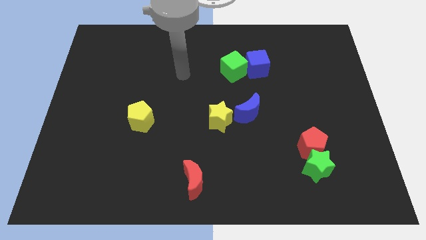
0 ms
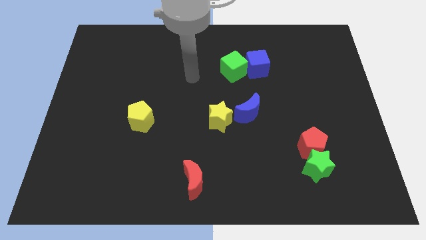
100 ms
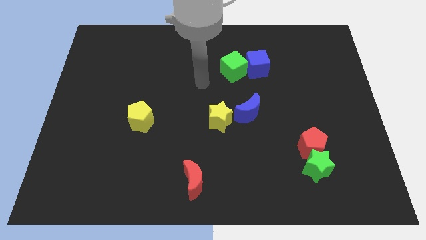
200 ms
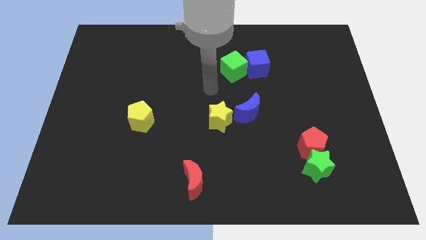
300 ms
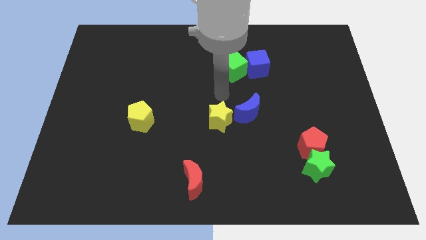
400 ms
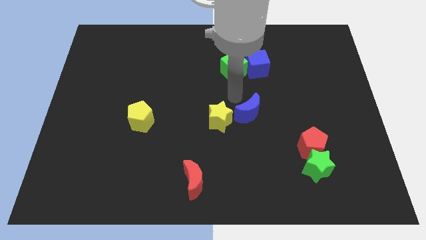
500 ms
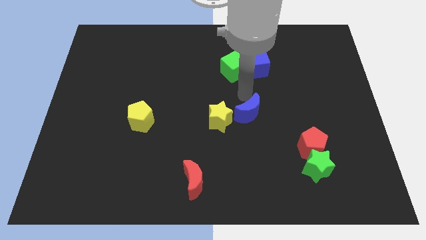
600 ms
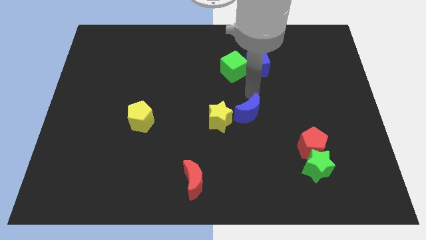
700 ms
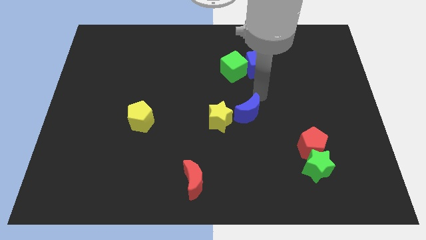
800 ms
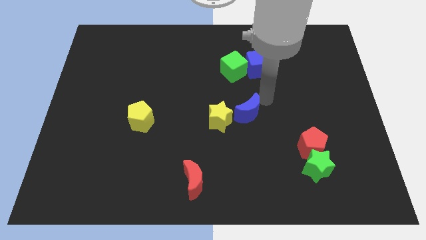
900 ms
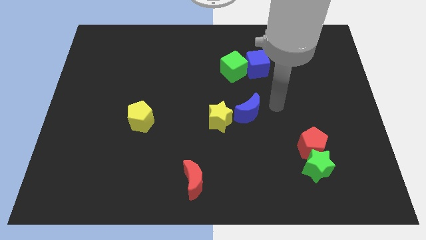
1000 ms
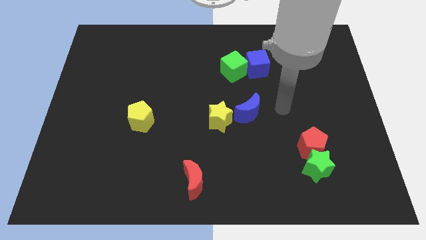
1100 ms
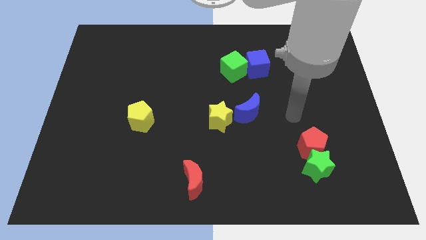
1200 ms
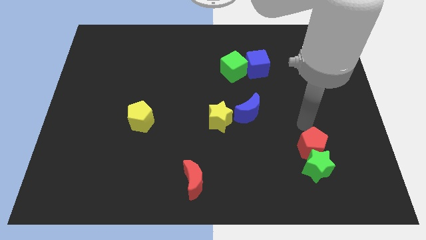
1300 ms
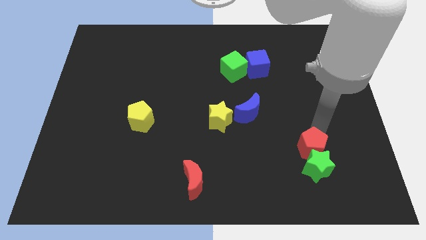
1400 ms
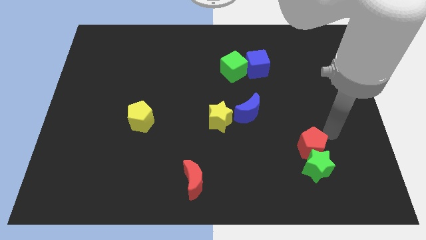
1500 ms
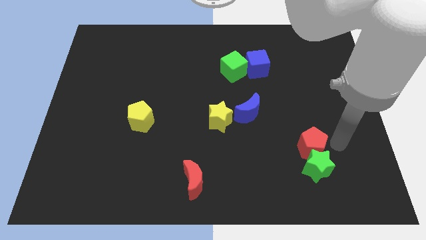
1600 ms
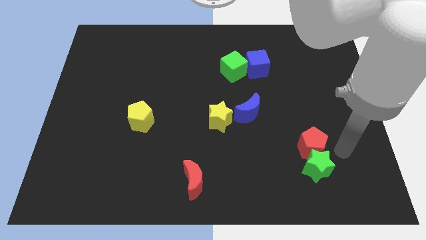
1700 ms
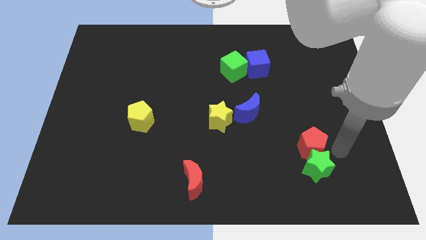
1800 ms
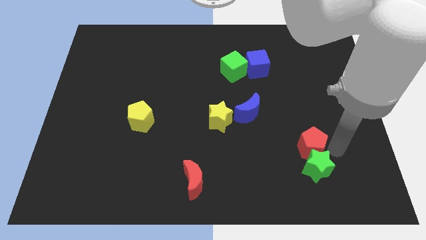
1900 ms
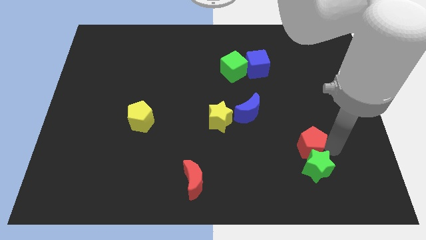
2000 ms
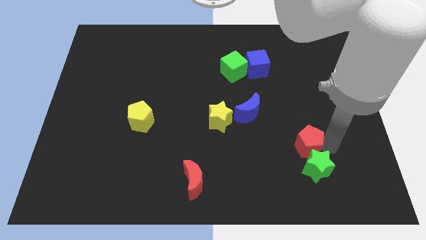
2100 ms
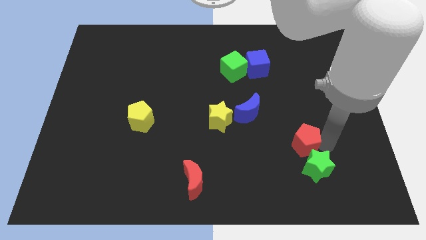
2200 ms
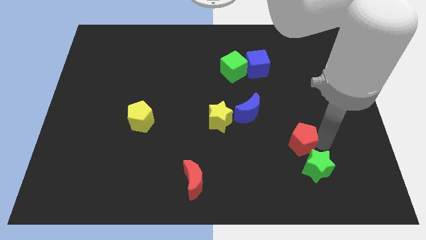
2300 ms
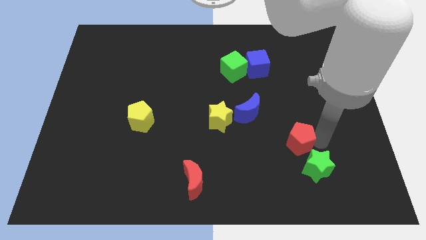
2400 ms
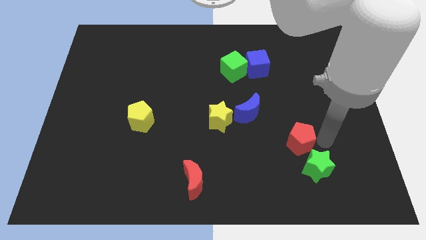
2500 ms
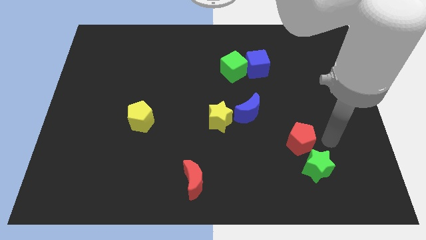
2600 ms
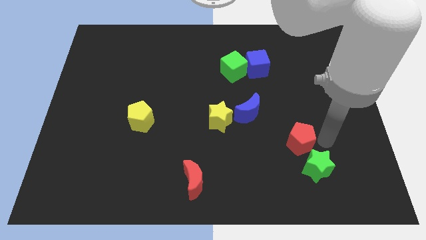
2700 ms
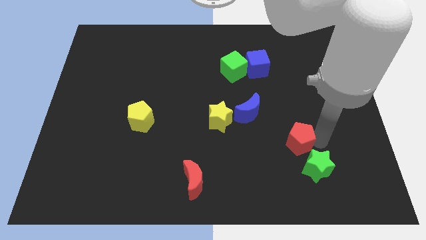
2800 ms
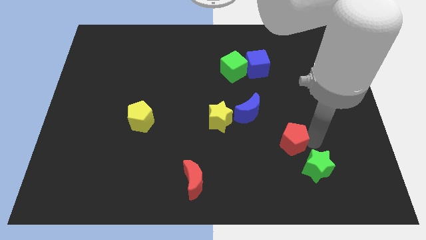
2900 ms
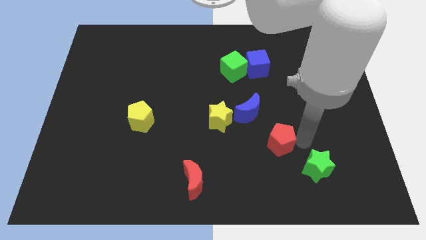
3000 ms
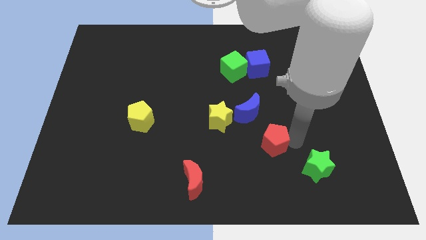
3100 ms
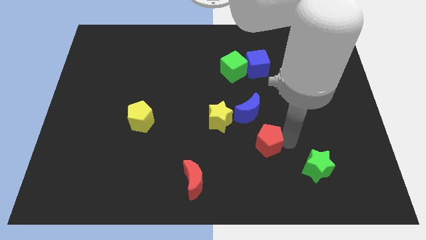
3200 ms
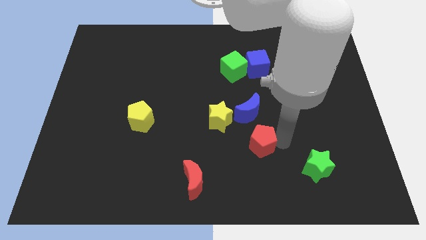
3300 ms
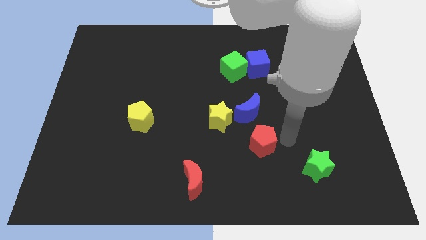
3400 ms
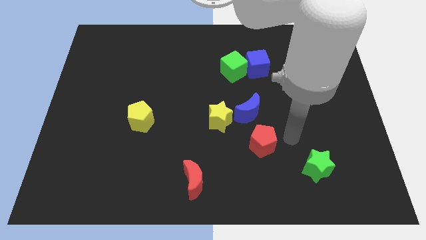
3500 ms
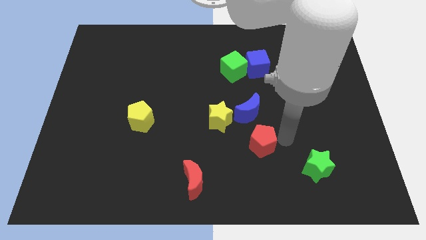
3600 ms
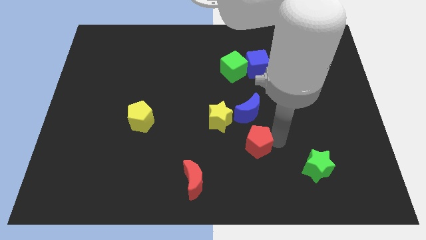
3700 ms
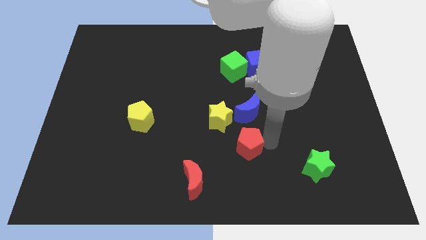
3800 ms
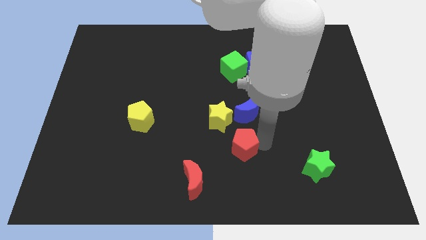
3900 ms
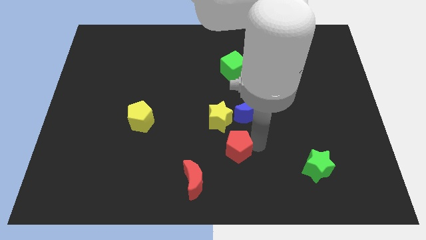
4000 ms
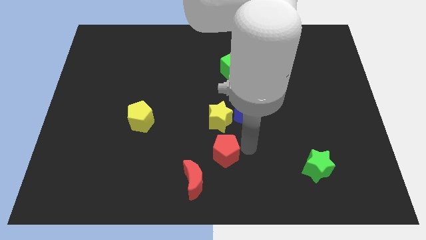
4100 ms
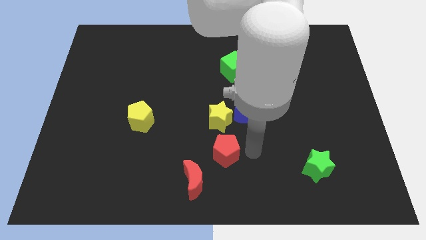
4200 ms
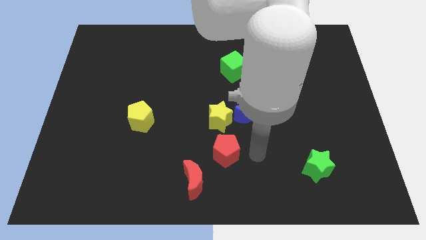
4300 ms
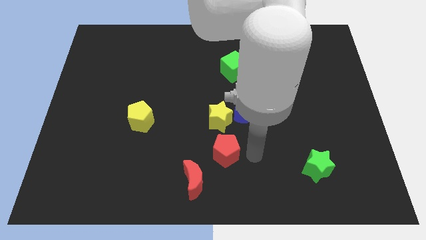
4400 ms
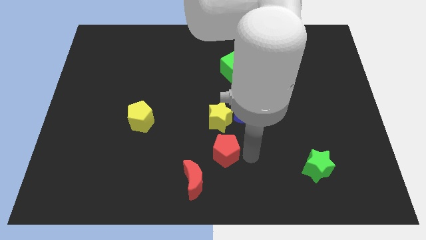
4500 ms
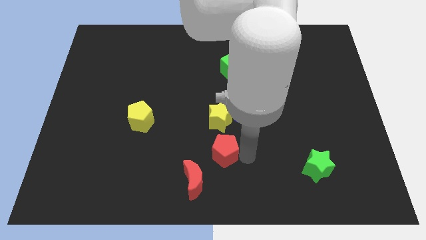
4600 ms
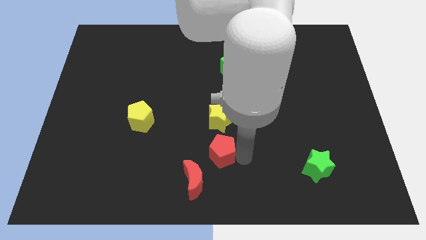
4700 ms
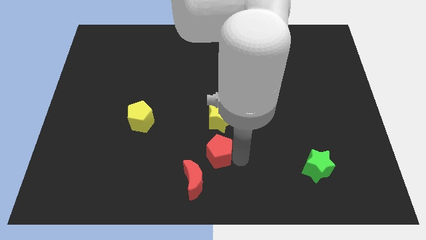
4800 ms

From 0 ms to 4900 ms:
push the red pentagon to the left

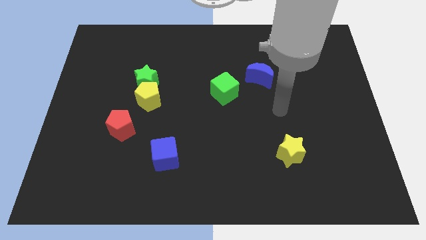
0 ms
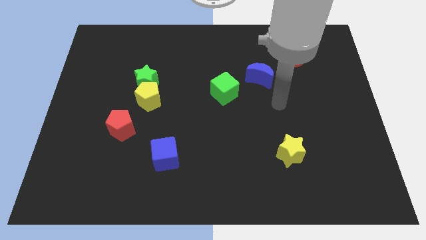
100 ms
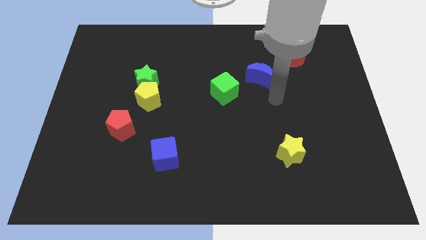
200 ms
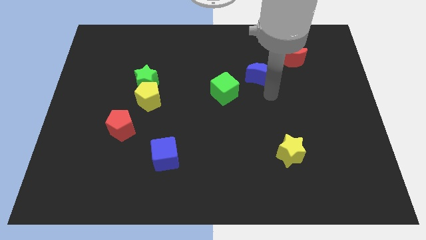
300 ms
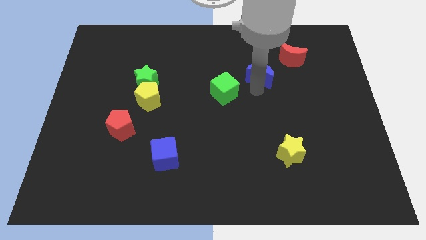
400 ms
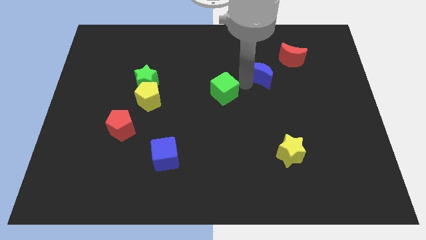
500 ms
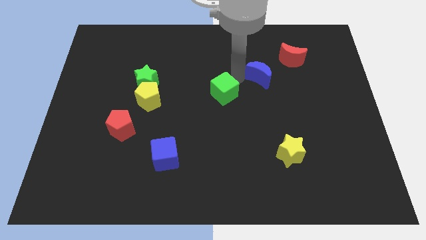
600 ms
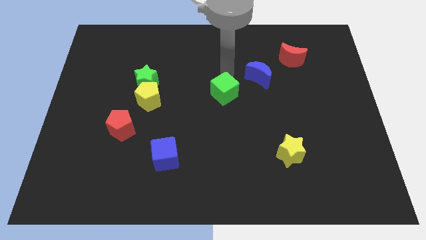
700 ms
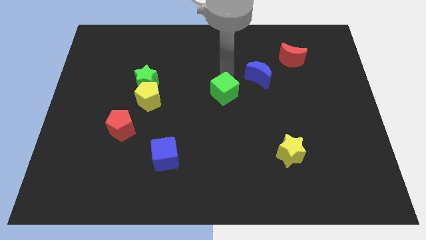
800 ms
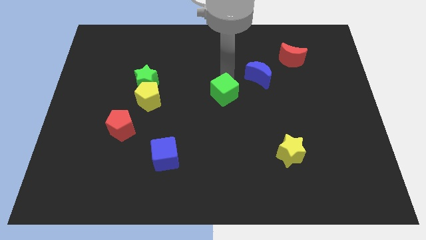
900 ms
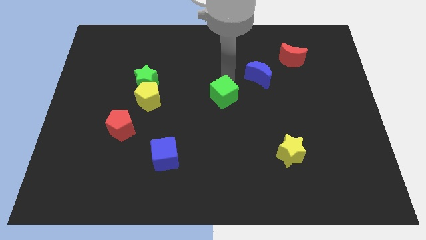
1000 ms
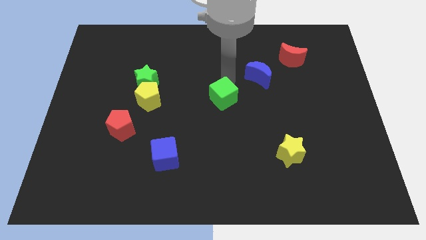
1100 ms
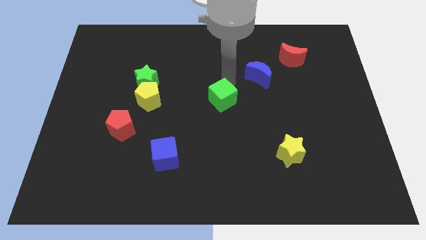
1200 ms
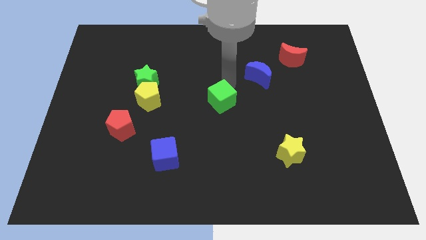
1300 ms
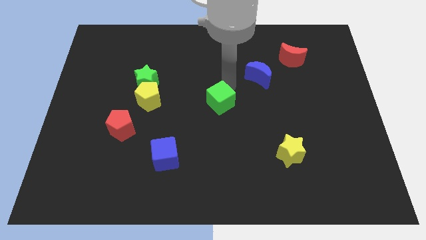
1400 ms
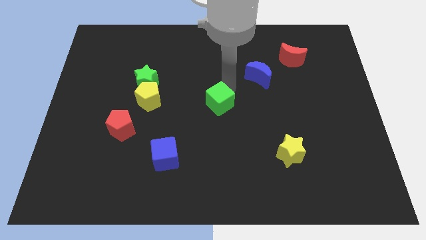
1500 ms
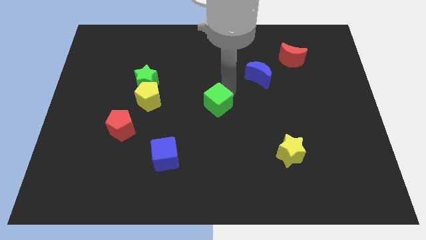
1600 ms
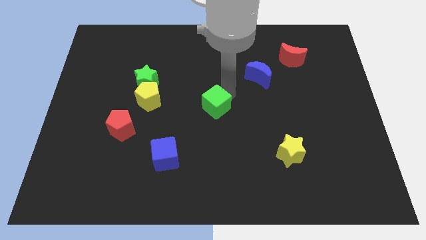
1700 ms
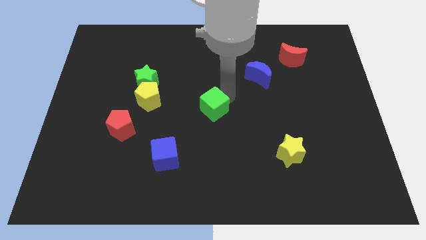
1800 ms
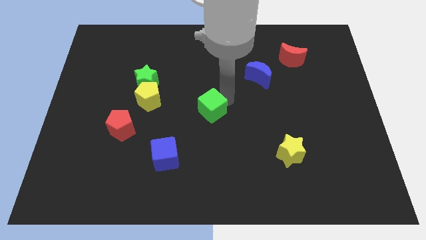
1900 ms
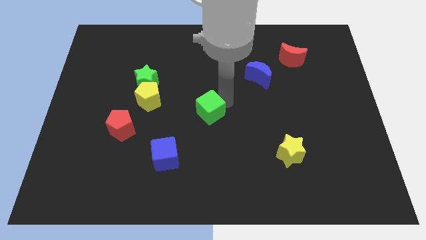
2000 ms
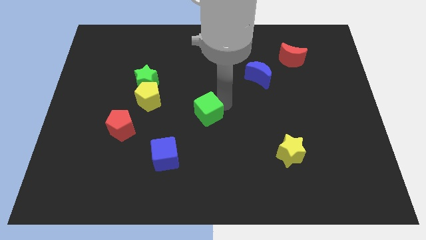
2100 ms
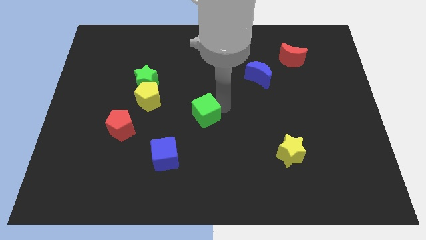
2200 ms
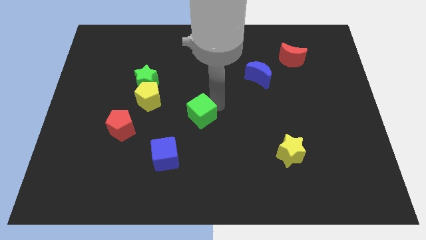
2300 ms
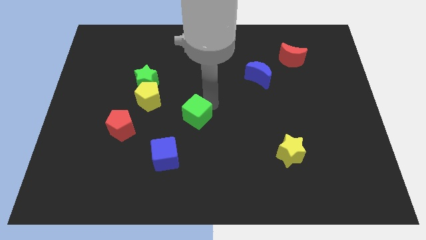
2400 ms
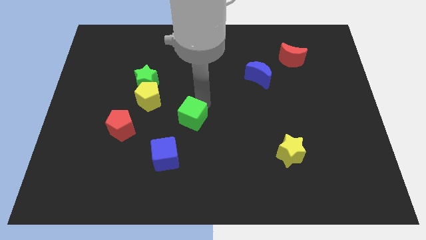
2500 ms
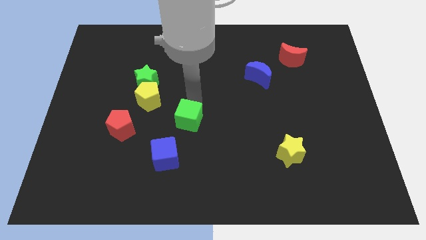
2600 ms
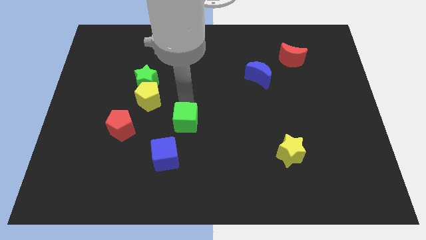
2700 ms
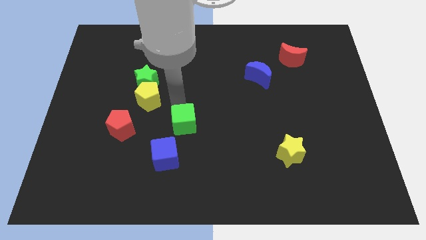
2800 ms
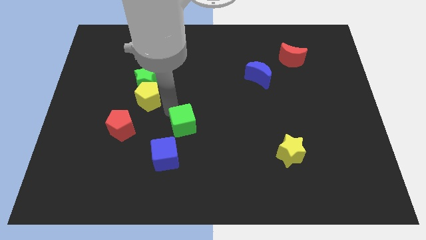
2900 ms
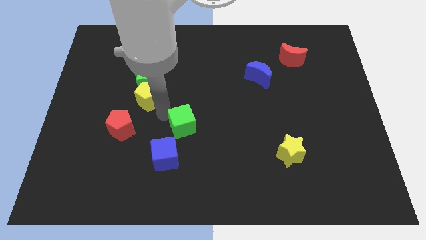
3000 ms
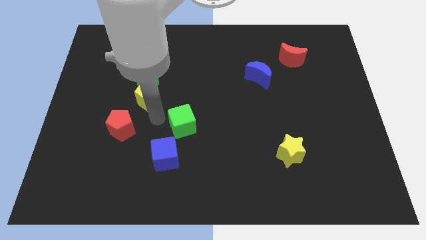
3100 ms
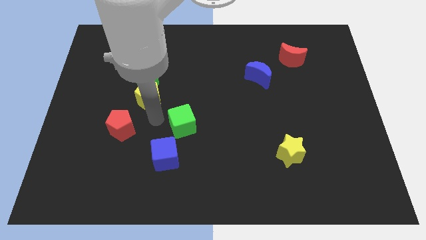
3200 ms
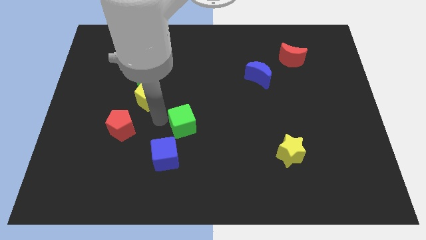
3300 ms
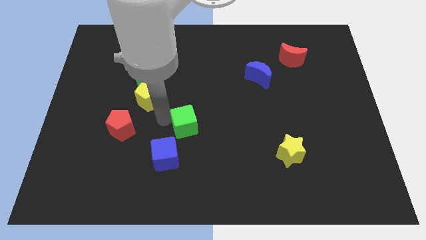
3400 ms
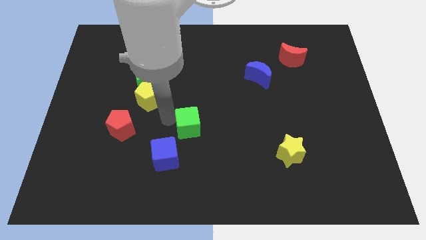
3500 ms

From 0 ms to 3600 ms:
slide the green cube down a little
